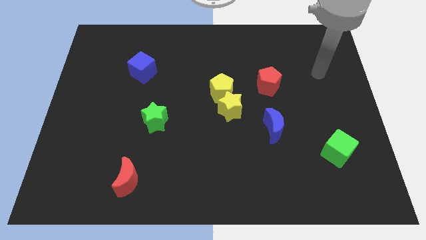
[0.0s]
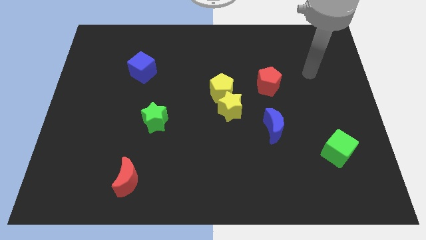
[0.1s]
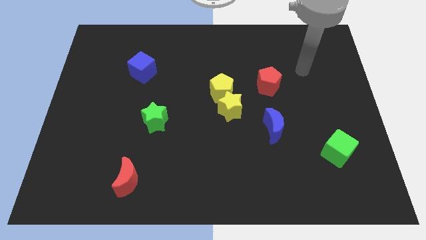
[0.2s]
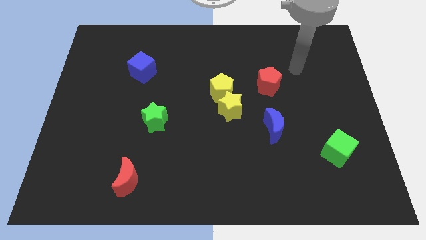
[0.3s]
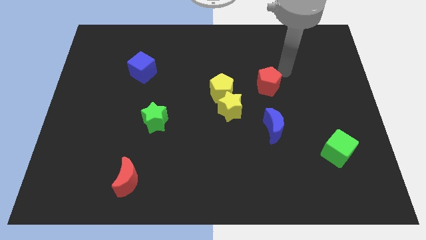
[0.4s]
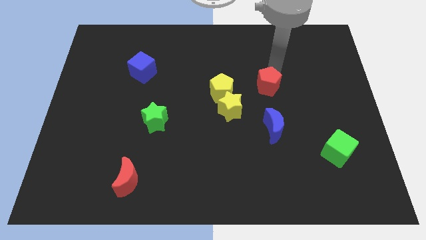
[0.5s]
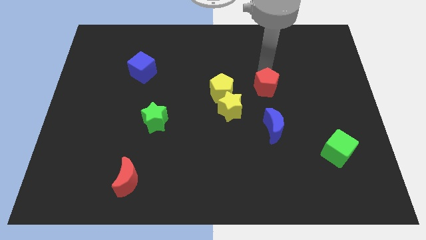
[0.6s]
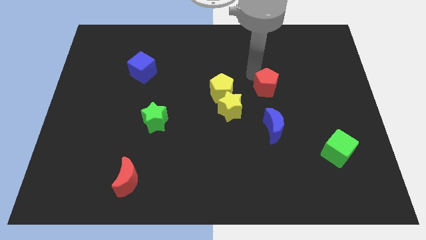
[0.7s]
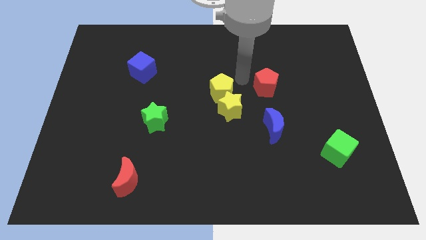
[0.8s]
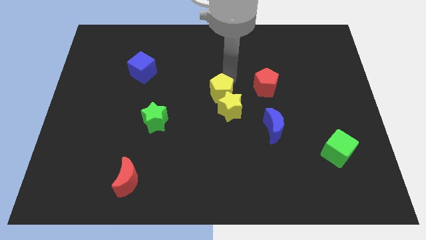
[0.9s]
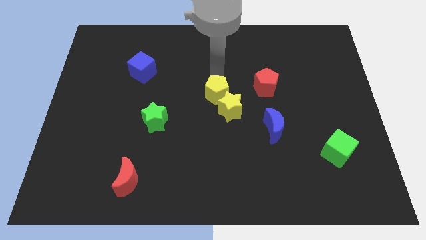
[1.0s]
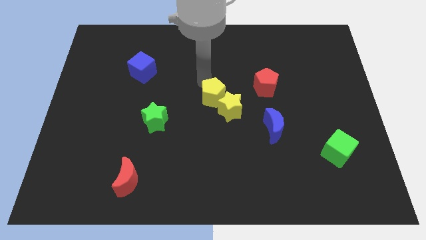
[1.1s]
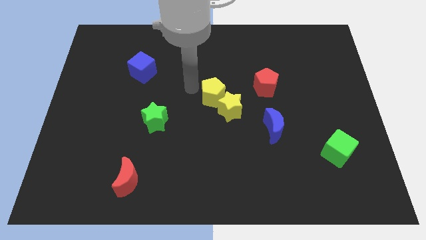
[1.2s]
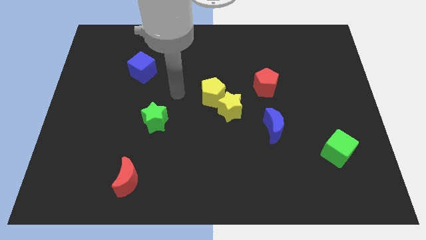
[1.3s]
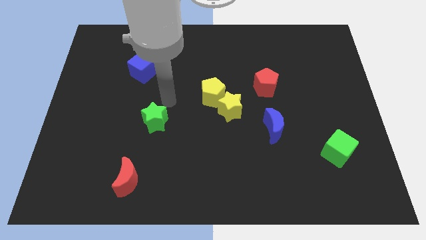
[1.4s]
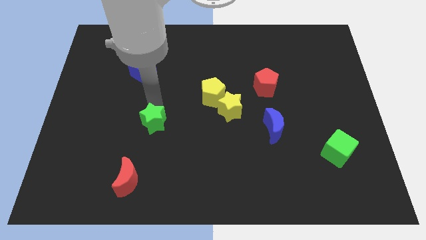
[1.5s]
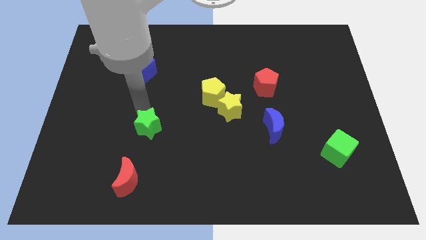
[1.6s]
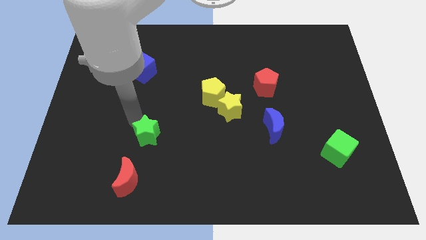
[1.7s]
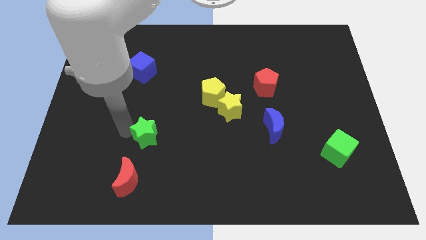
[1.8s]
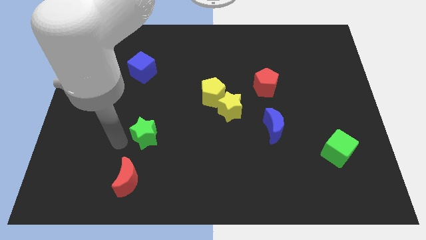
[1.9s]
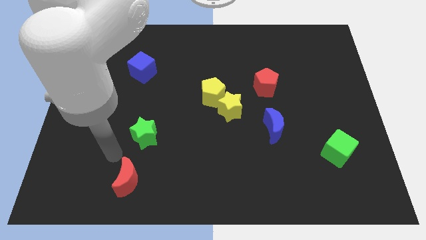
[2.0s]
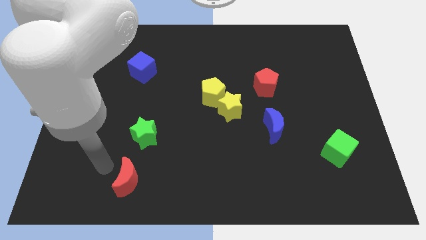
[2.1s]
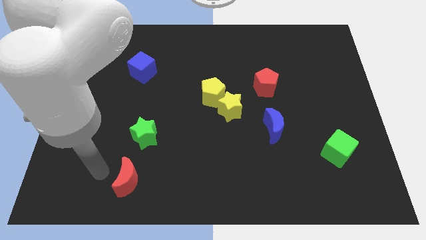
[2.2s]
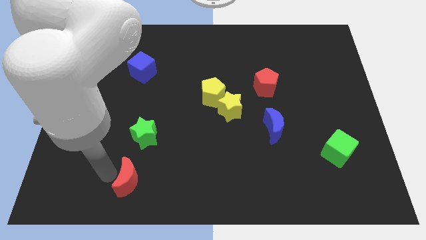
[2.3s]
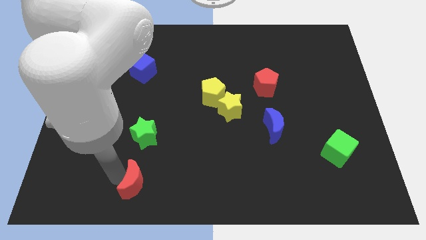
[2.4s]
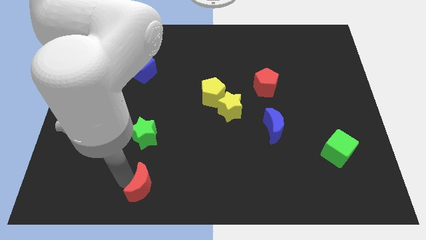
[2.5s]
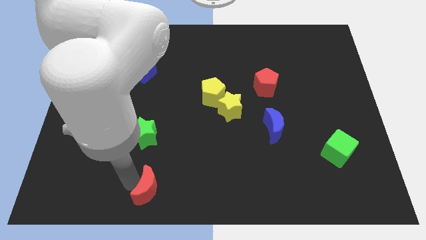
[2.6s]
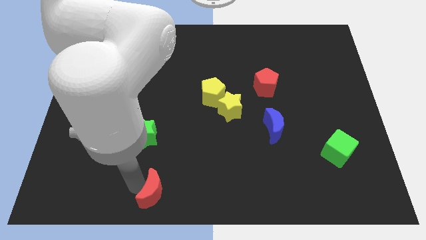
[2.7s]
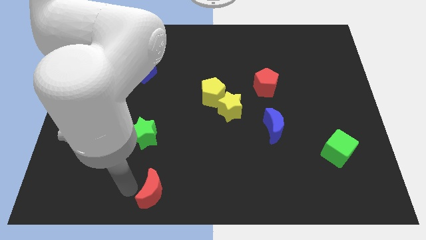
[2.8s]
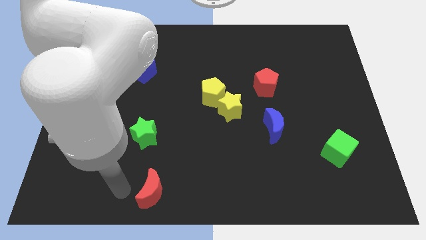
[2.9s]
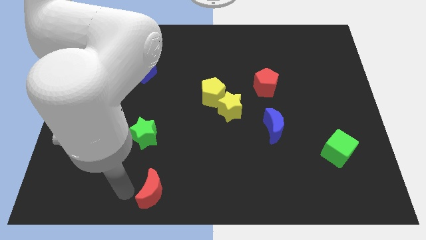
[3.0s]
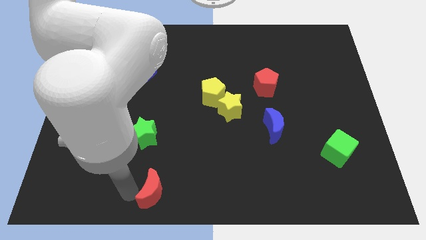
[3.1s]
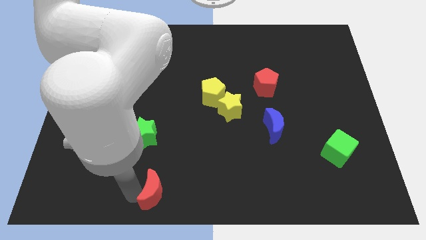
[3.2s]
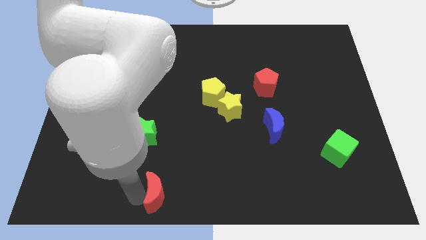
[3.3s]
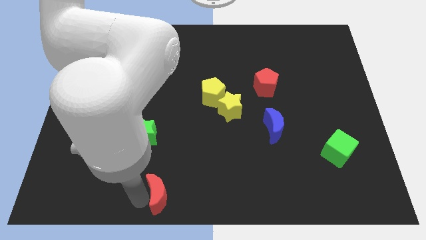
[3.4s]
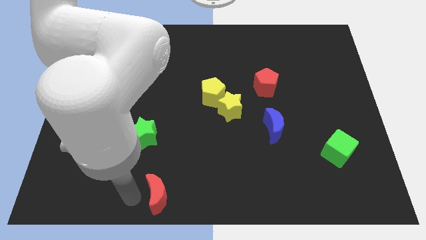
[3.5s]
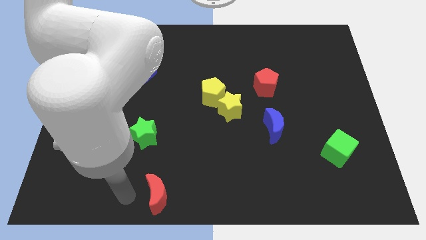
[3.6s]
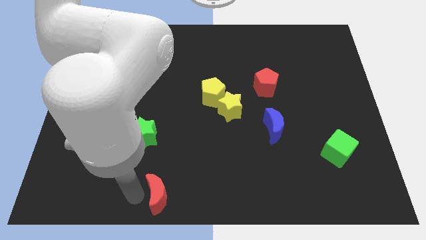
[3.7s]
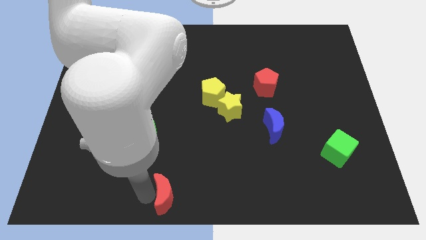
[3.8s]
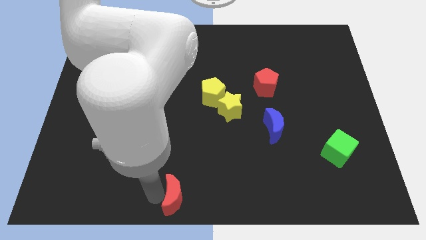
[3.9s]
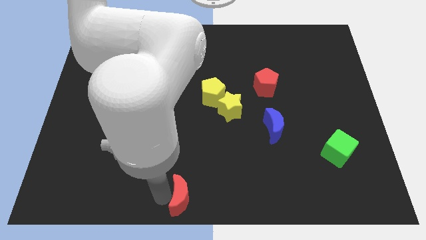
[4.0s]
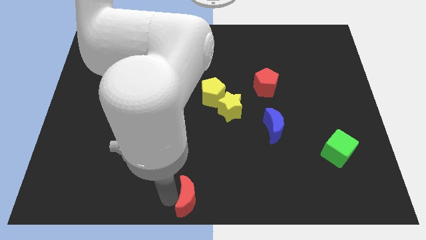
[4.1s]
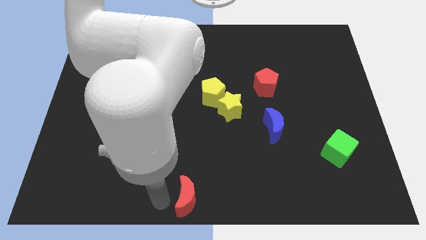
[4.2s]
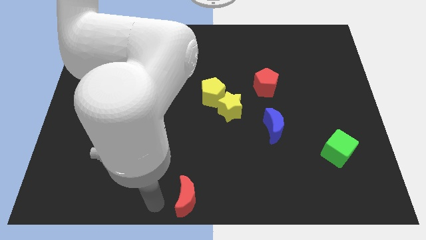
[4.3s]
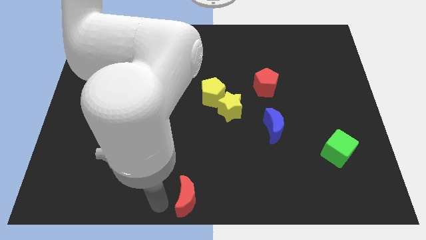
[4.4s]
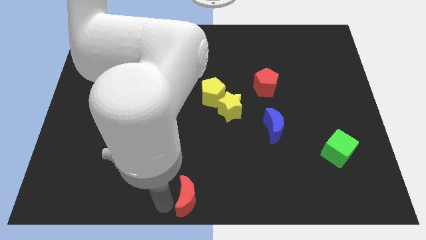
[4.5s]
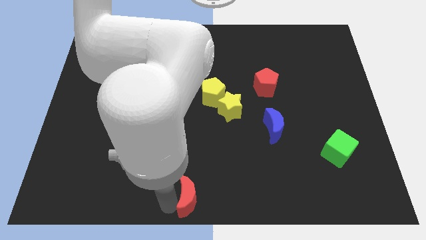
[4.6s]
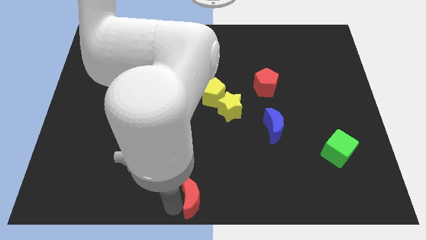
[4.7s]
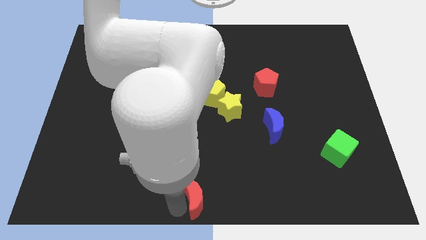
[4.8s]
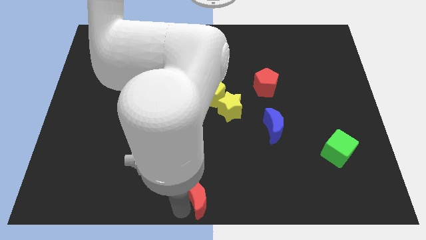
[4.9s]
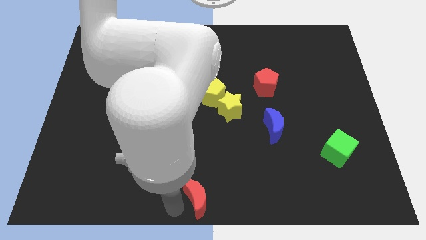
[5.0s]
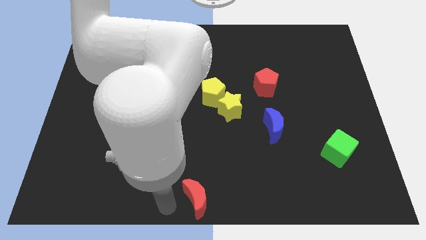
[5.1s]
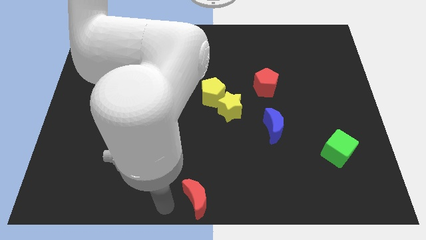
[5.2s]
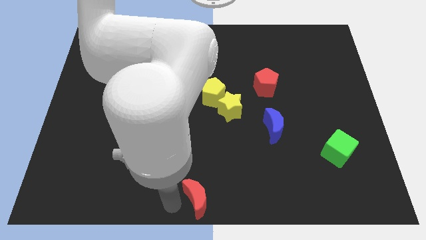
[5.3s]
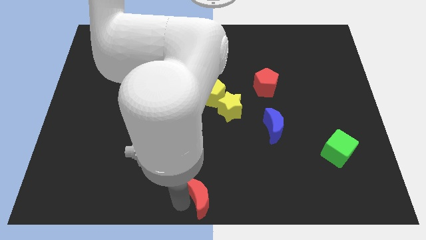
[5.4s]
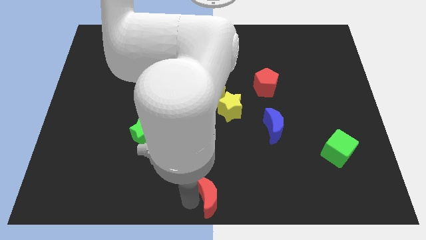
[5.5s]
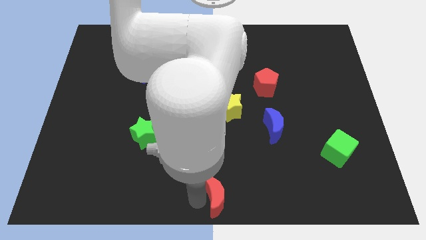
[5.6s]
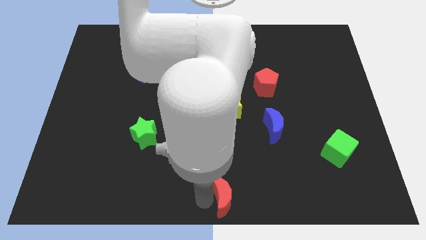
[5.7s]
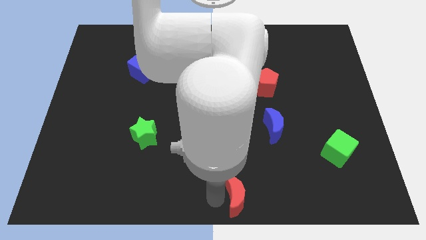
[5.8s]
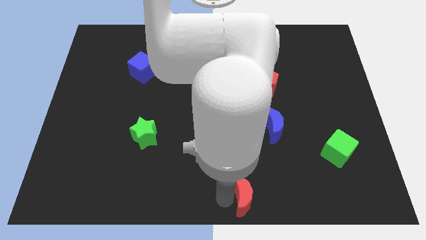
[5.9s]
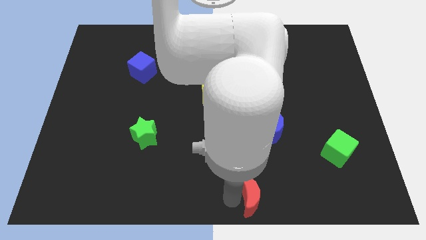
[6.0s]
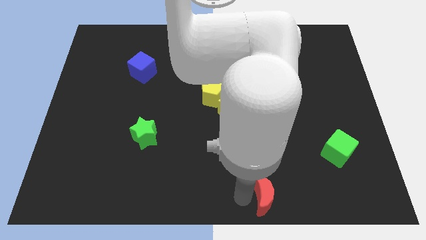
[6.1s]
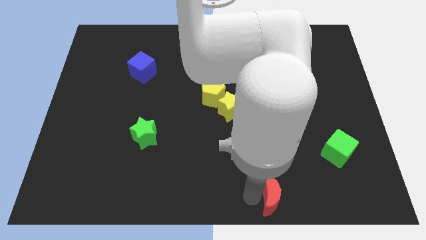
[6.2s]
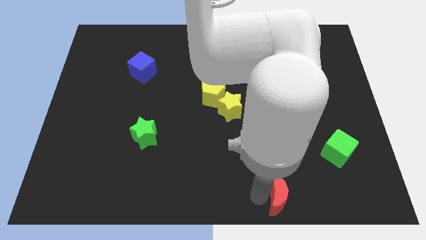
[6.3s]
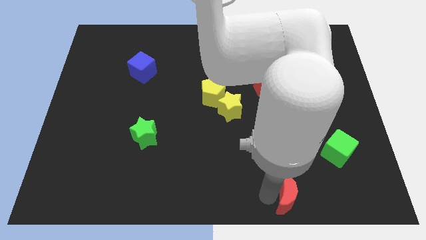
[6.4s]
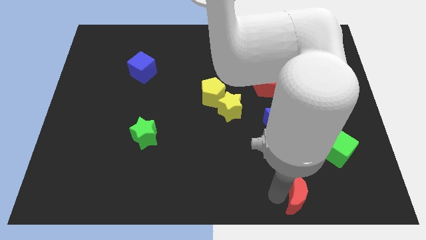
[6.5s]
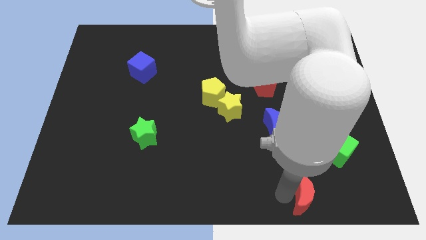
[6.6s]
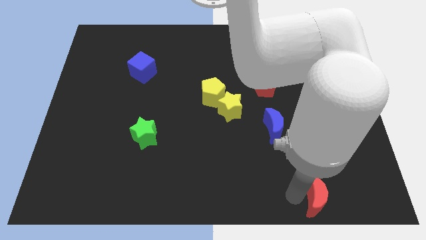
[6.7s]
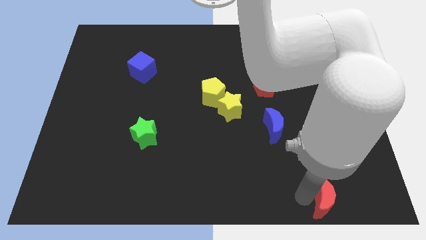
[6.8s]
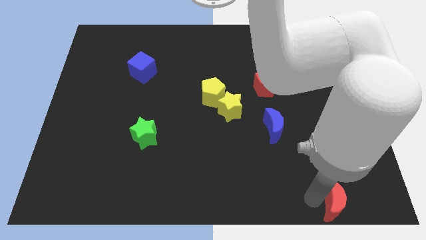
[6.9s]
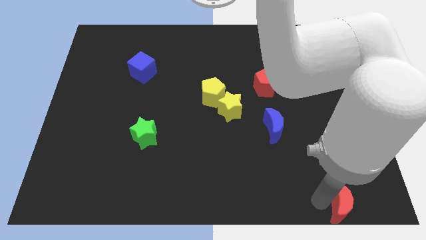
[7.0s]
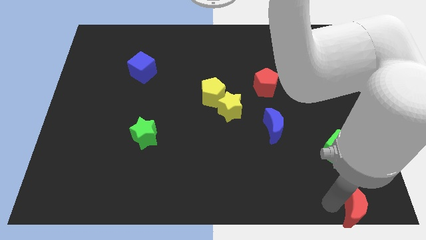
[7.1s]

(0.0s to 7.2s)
move the red moon to the bottom right of the board
